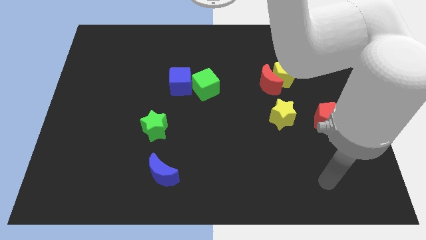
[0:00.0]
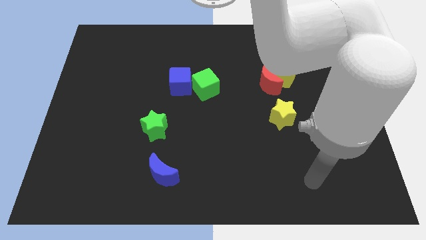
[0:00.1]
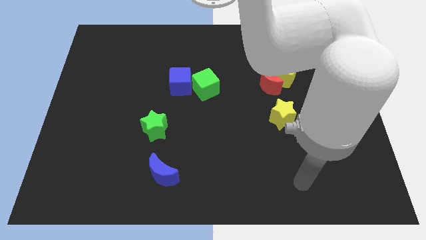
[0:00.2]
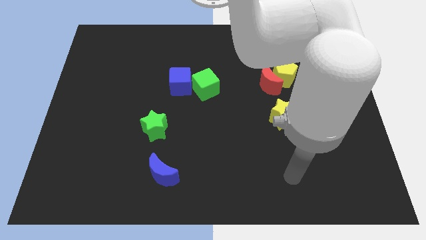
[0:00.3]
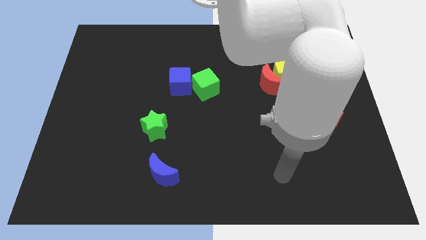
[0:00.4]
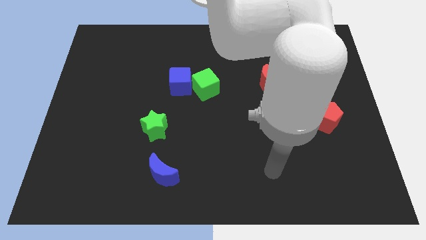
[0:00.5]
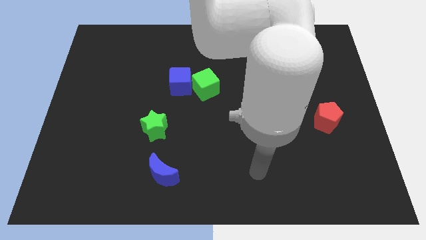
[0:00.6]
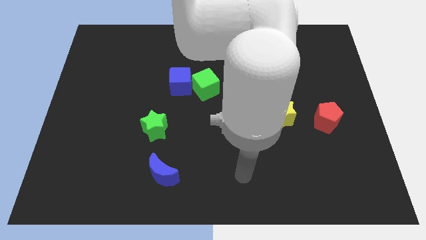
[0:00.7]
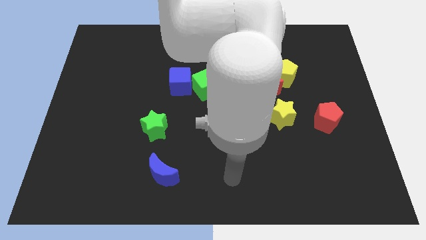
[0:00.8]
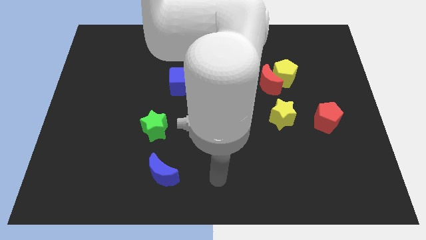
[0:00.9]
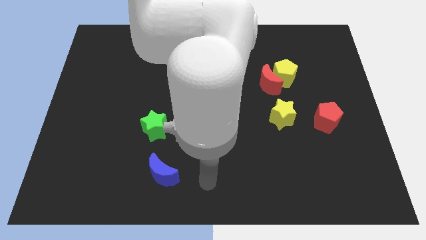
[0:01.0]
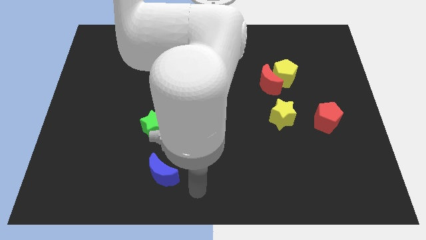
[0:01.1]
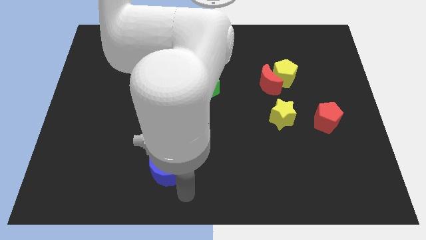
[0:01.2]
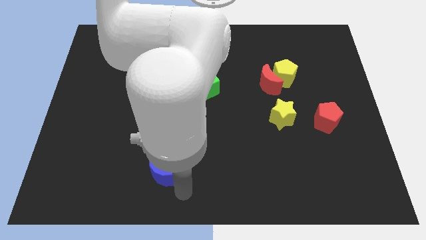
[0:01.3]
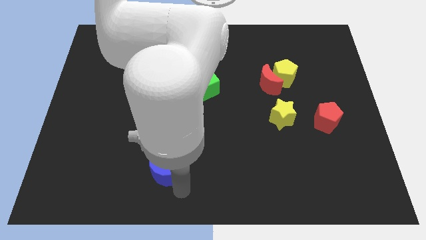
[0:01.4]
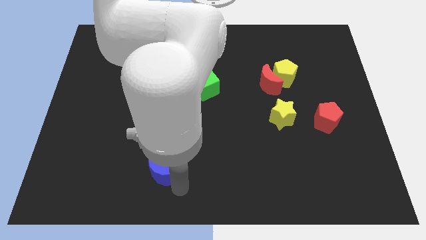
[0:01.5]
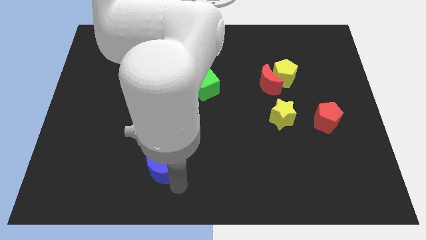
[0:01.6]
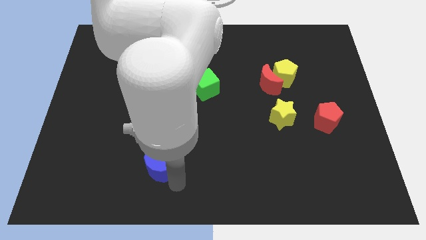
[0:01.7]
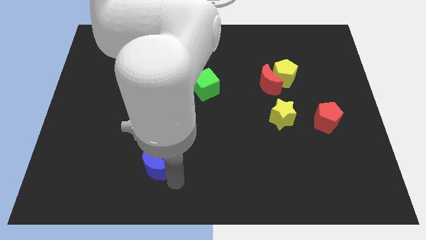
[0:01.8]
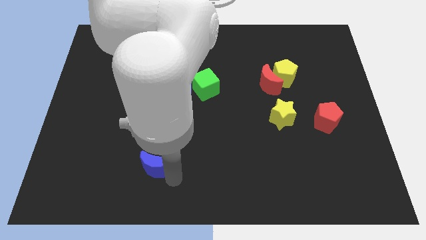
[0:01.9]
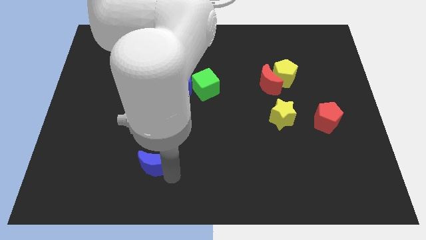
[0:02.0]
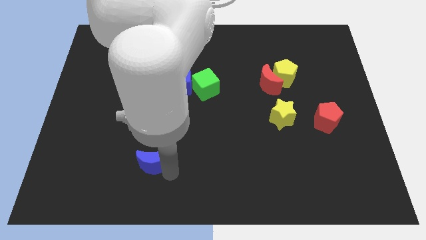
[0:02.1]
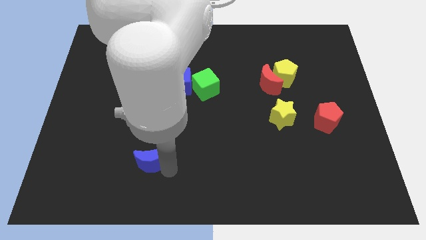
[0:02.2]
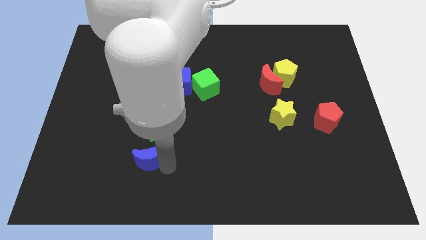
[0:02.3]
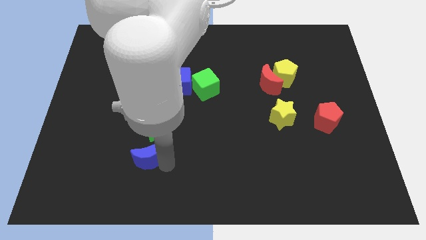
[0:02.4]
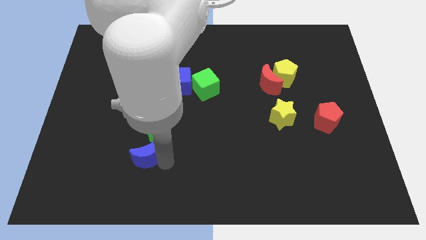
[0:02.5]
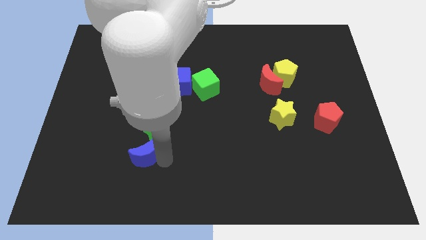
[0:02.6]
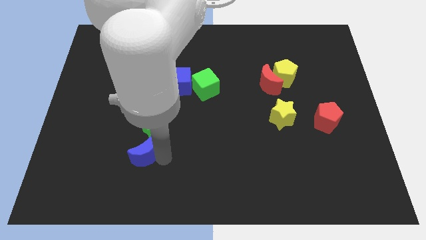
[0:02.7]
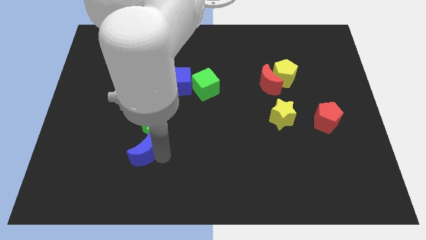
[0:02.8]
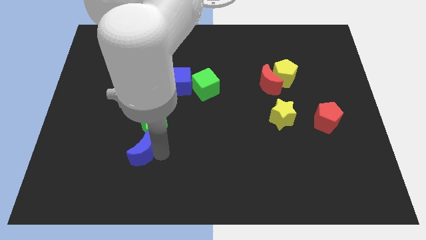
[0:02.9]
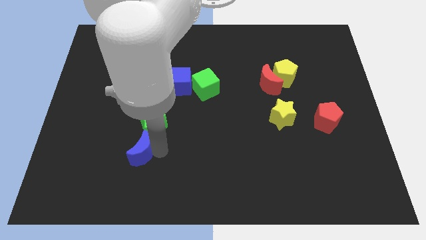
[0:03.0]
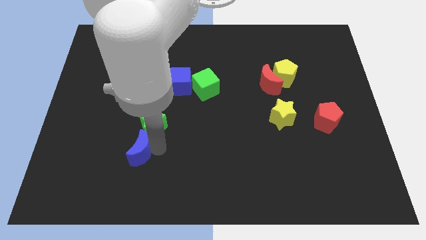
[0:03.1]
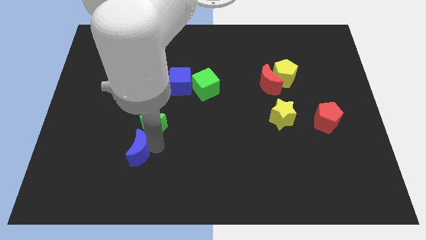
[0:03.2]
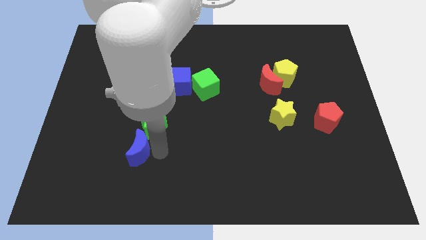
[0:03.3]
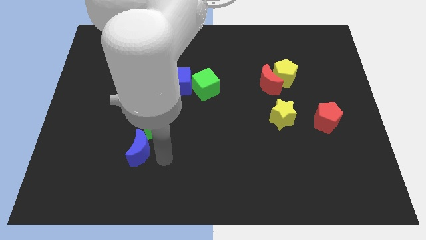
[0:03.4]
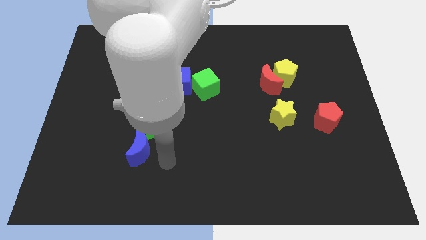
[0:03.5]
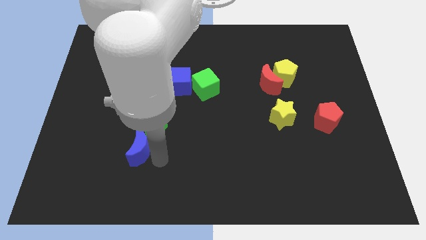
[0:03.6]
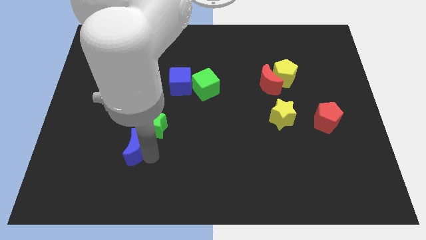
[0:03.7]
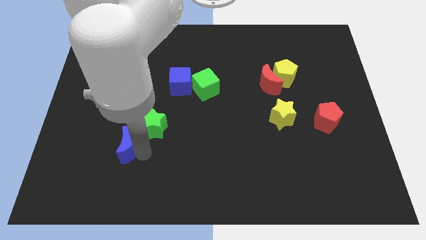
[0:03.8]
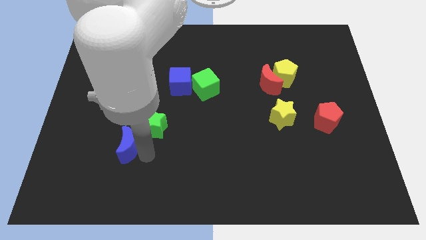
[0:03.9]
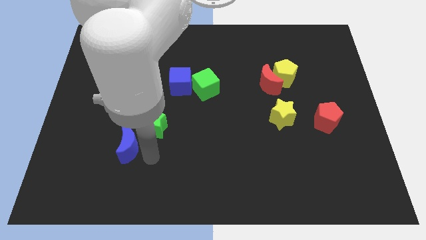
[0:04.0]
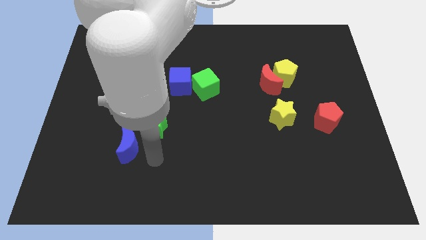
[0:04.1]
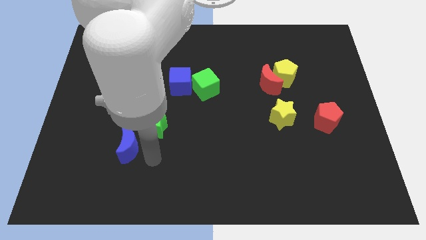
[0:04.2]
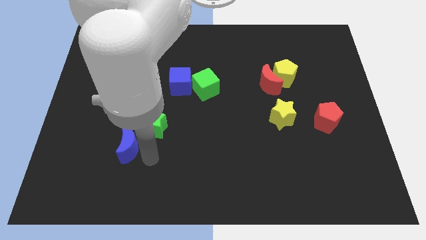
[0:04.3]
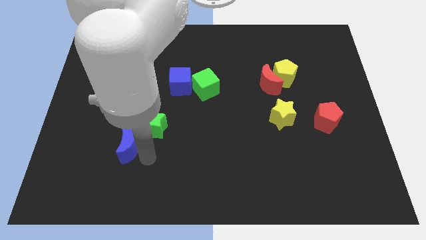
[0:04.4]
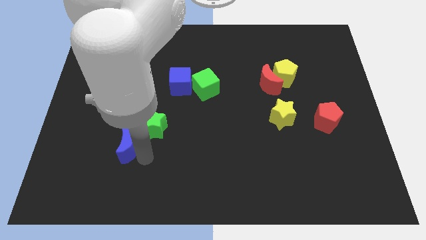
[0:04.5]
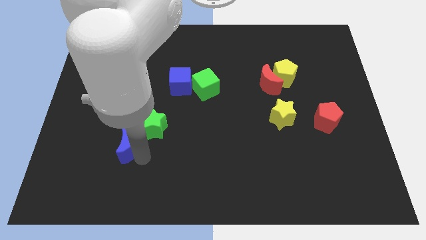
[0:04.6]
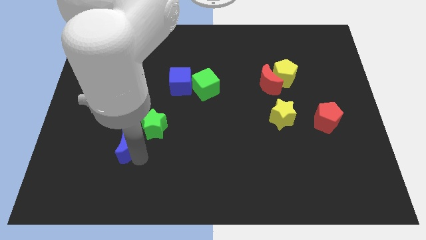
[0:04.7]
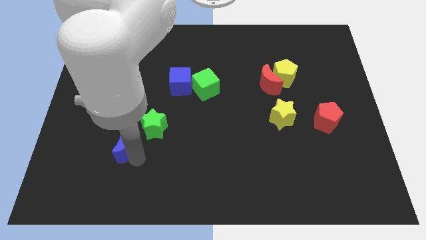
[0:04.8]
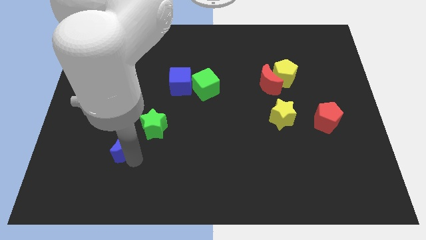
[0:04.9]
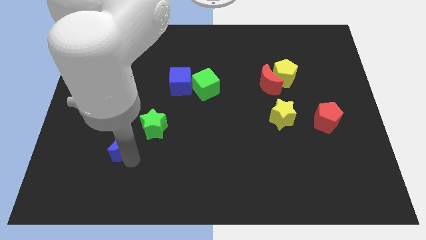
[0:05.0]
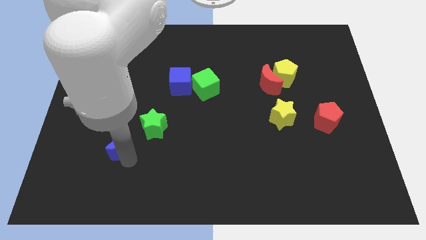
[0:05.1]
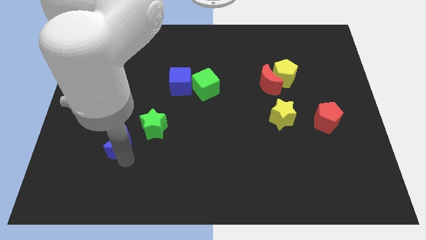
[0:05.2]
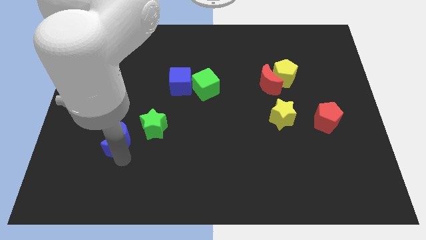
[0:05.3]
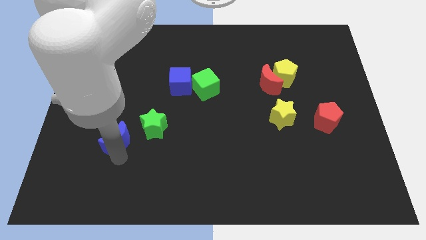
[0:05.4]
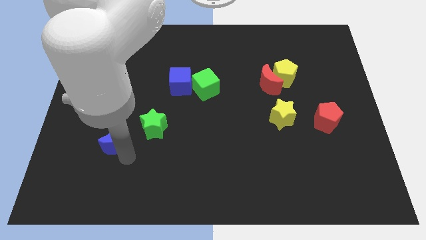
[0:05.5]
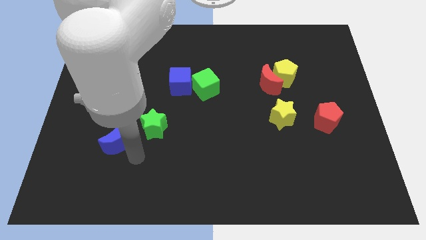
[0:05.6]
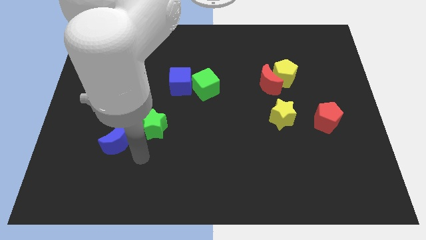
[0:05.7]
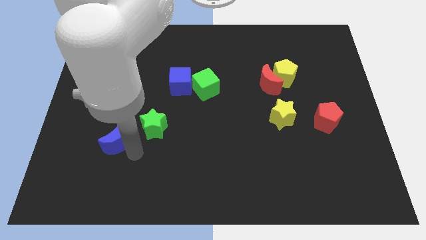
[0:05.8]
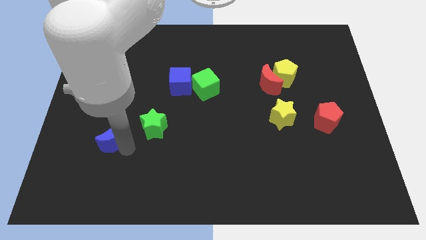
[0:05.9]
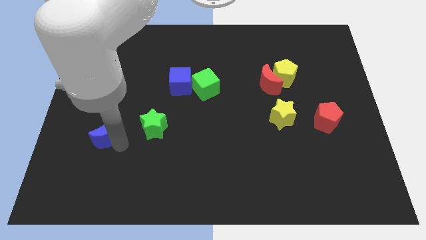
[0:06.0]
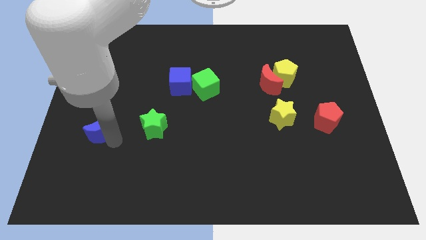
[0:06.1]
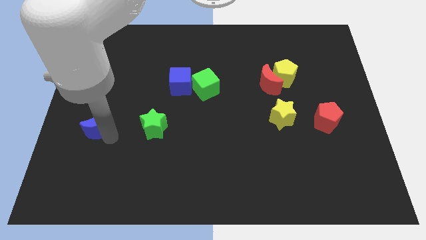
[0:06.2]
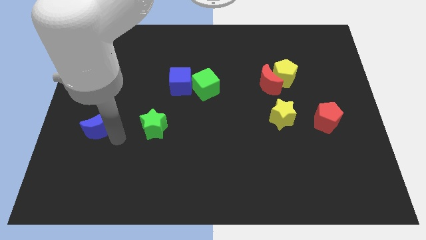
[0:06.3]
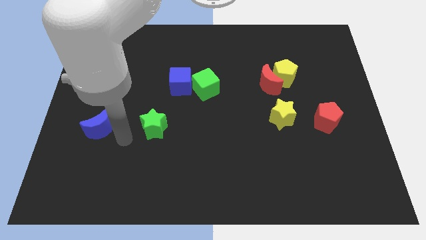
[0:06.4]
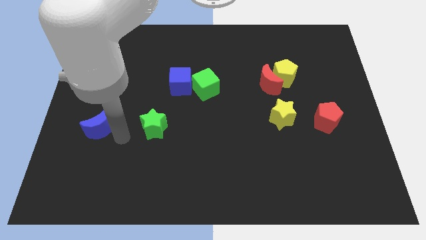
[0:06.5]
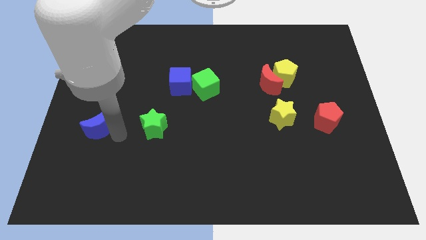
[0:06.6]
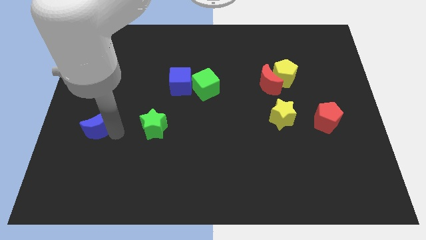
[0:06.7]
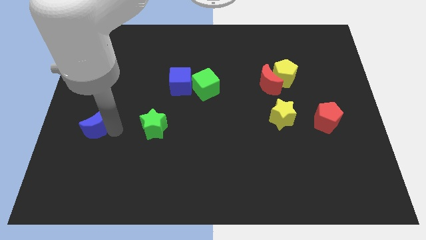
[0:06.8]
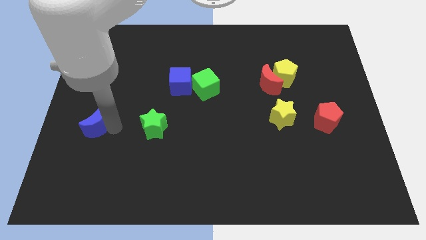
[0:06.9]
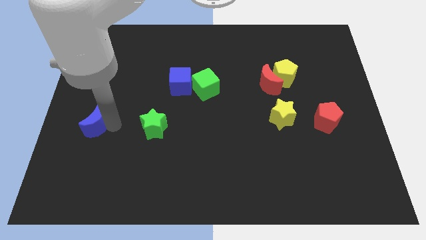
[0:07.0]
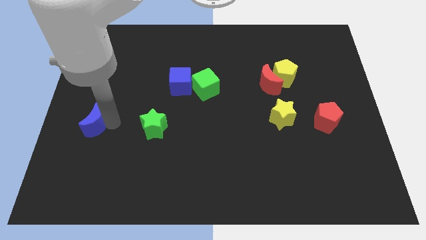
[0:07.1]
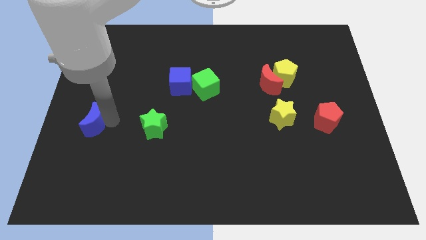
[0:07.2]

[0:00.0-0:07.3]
slide the blue moon to the center left
